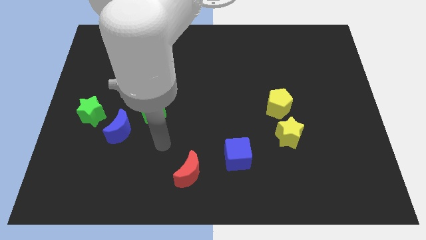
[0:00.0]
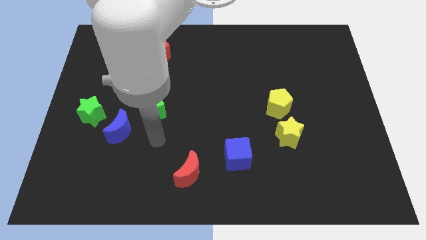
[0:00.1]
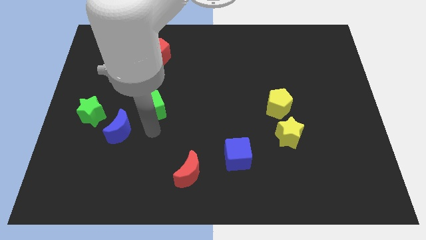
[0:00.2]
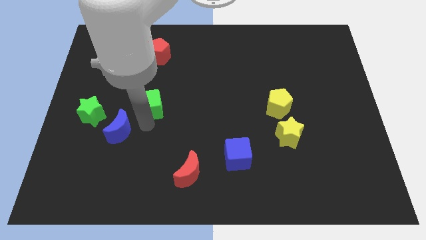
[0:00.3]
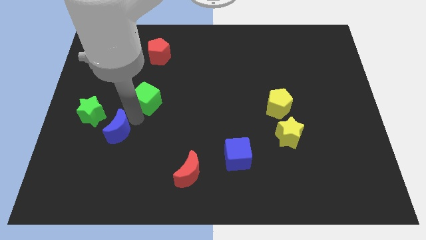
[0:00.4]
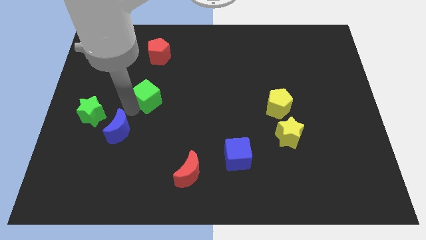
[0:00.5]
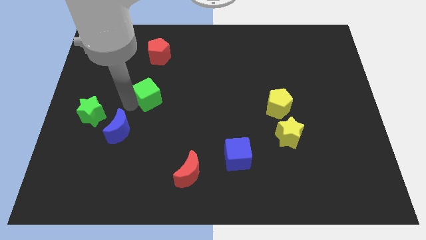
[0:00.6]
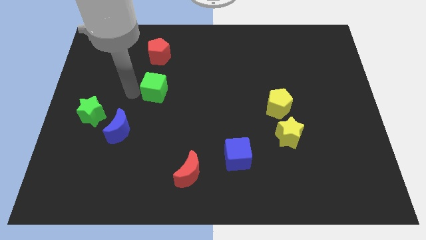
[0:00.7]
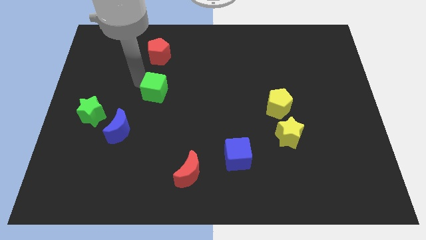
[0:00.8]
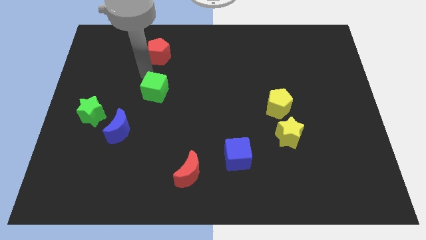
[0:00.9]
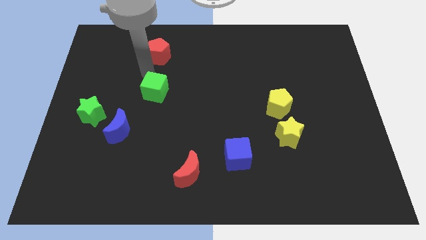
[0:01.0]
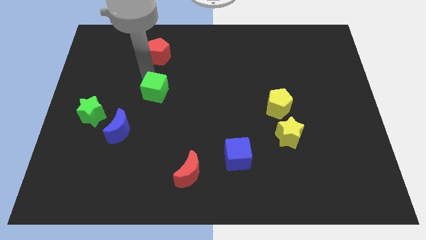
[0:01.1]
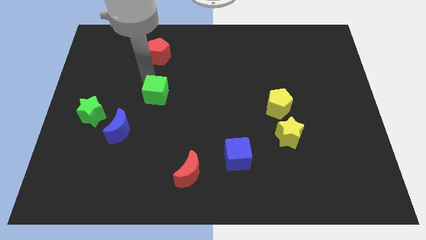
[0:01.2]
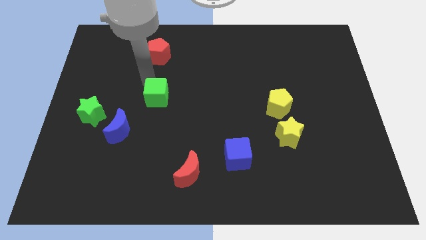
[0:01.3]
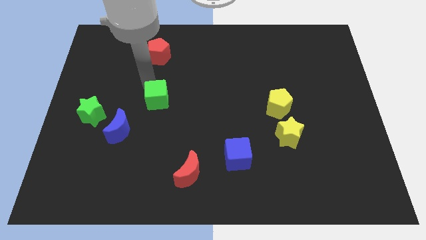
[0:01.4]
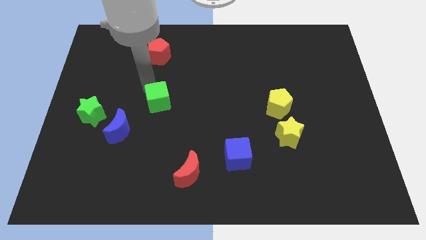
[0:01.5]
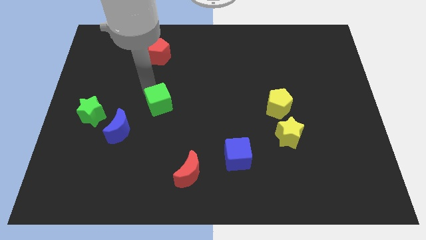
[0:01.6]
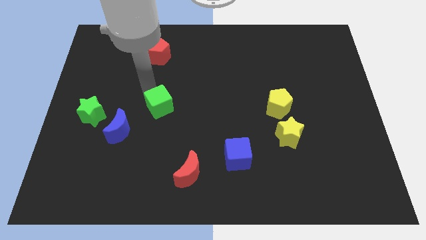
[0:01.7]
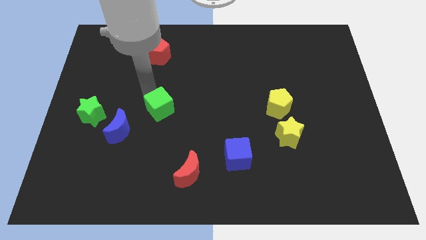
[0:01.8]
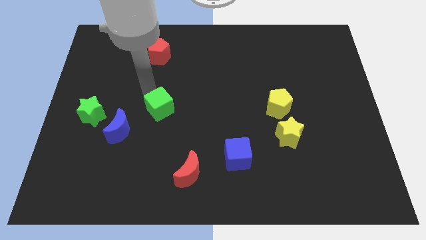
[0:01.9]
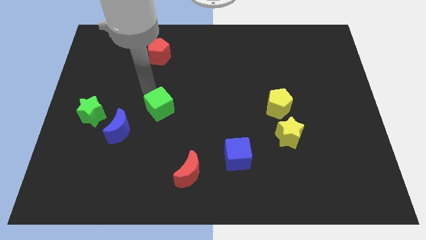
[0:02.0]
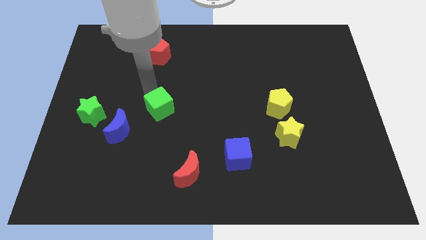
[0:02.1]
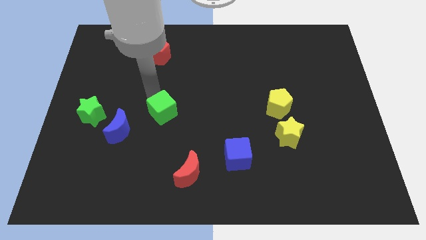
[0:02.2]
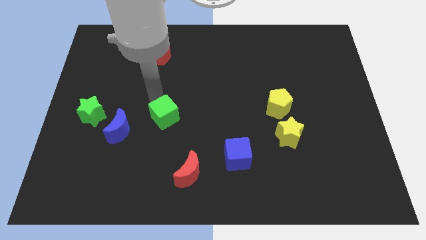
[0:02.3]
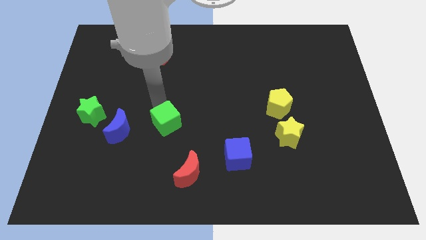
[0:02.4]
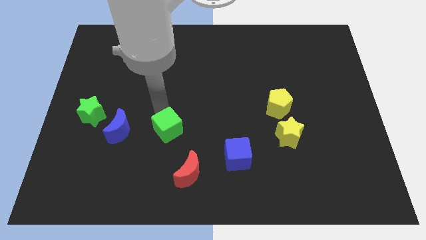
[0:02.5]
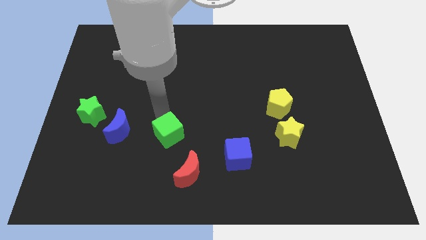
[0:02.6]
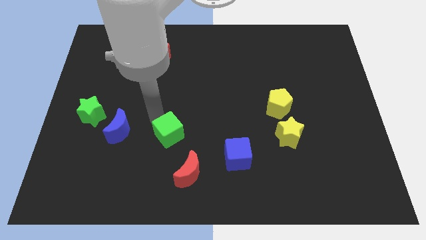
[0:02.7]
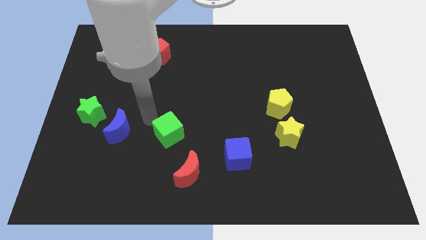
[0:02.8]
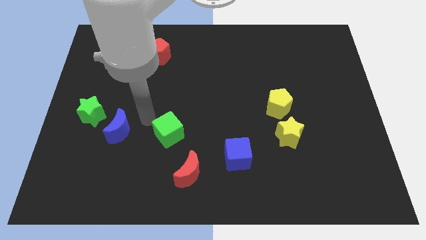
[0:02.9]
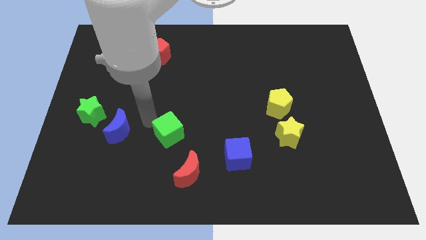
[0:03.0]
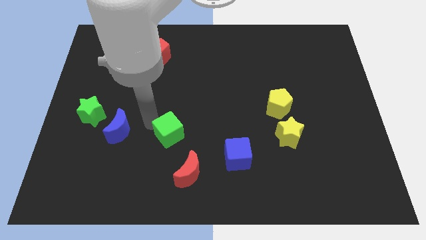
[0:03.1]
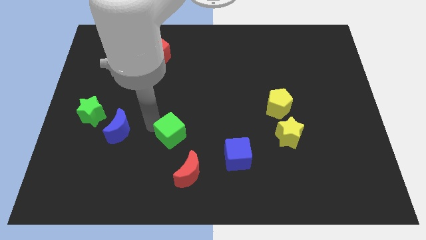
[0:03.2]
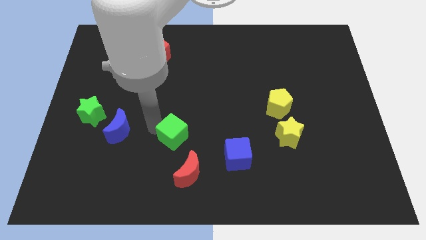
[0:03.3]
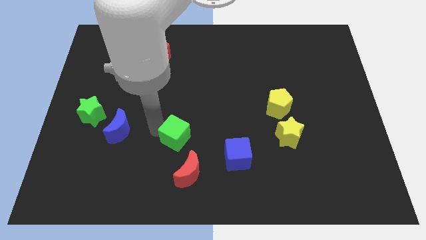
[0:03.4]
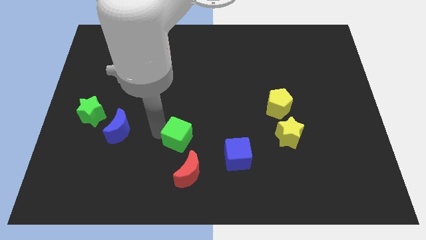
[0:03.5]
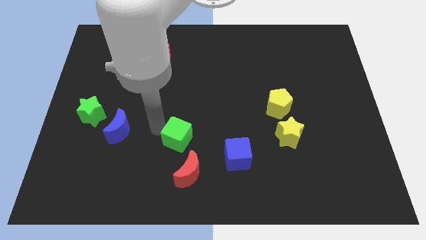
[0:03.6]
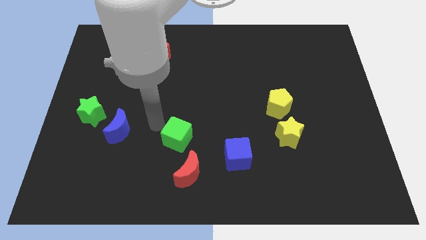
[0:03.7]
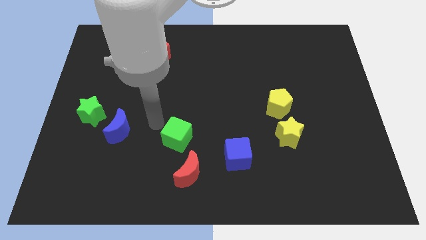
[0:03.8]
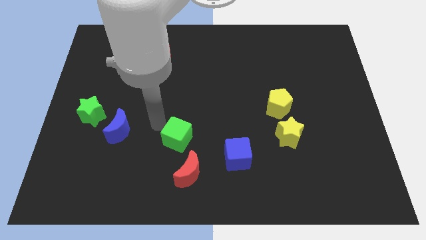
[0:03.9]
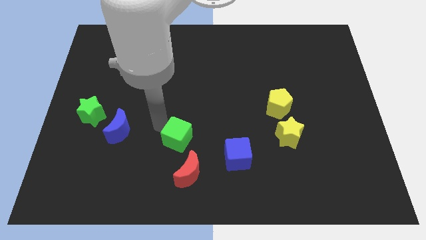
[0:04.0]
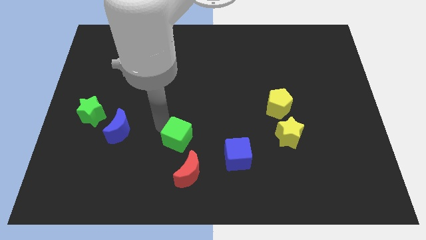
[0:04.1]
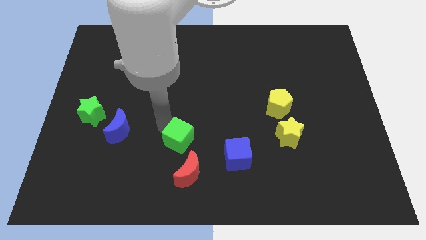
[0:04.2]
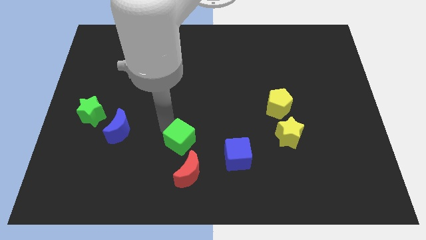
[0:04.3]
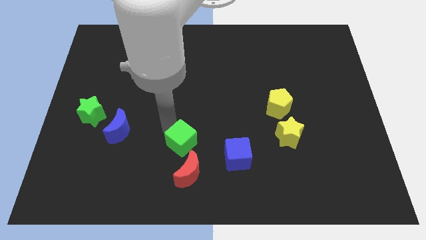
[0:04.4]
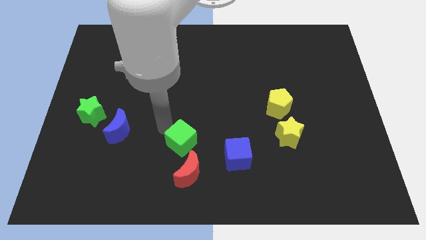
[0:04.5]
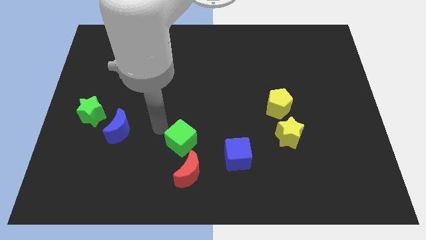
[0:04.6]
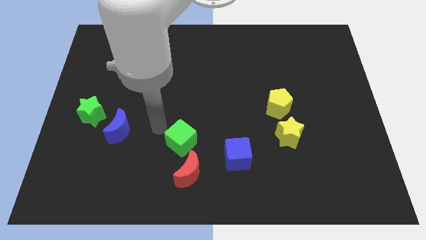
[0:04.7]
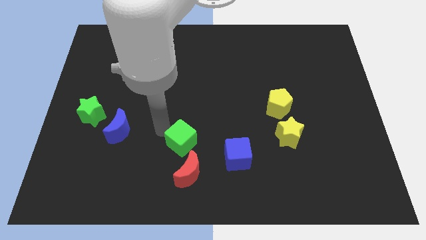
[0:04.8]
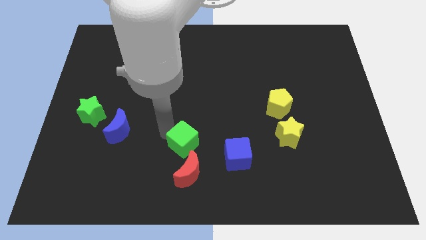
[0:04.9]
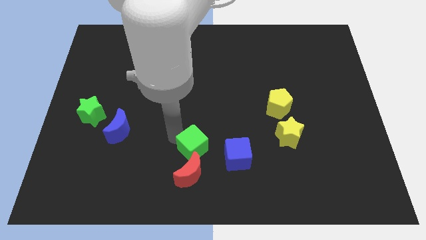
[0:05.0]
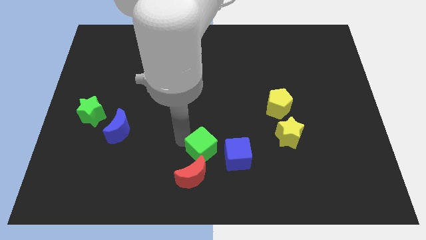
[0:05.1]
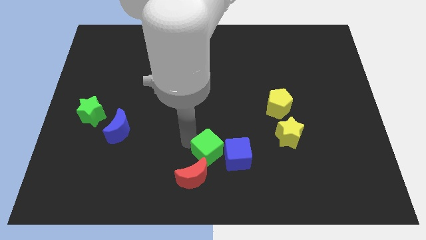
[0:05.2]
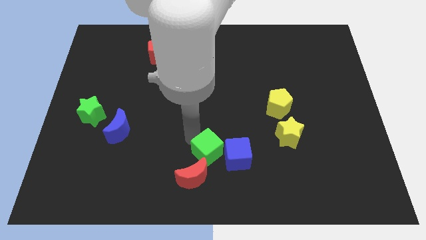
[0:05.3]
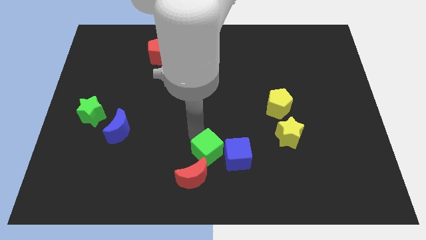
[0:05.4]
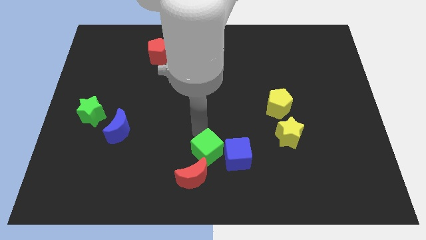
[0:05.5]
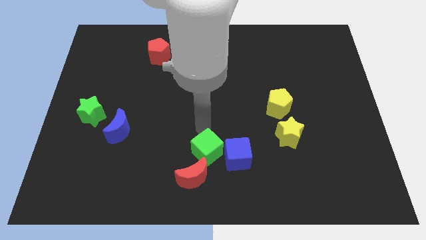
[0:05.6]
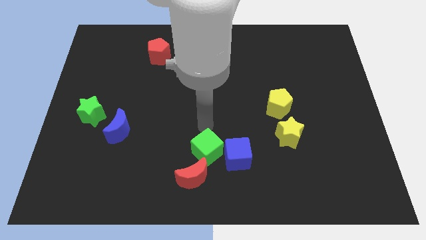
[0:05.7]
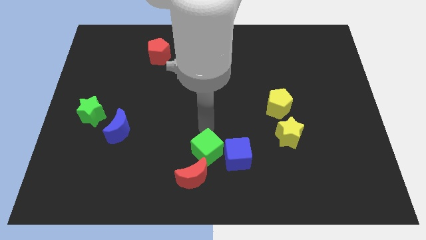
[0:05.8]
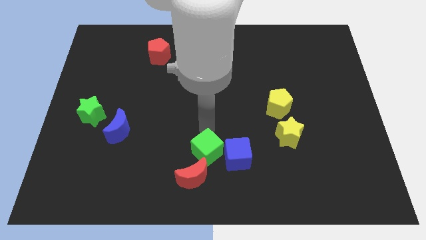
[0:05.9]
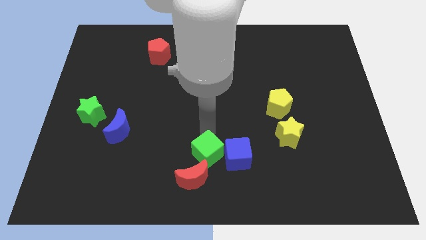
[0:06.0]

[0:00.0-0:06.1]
move the green cube to the bottom side

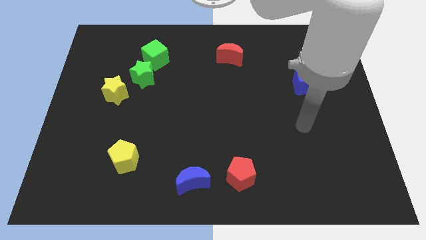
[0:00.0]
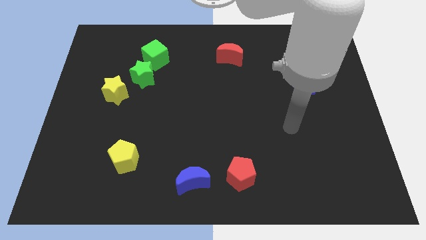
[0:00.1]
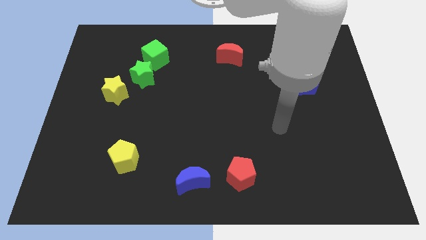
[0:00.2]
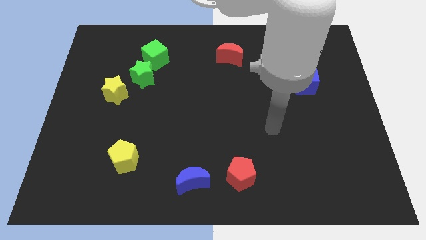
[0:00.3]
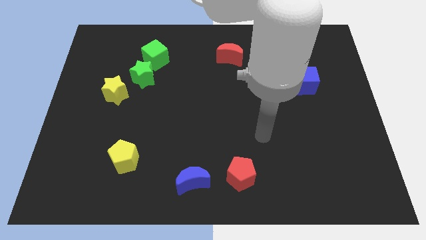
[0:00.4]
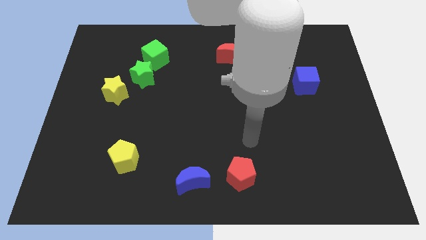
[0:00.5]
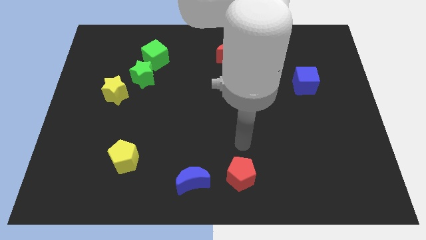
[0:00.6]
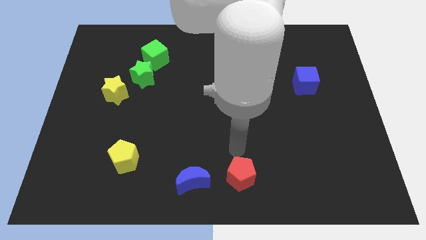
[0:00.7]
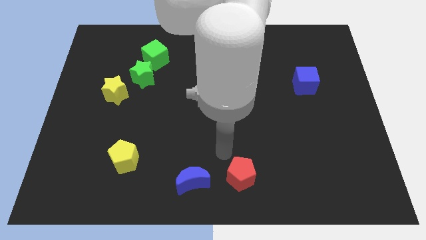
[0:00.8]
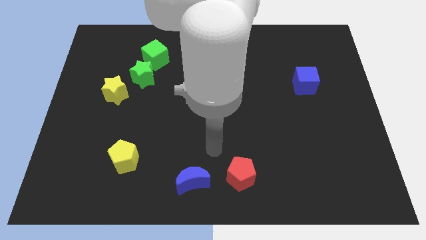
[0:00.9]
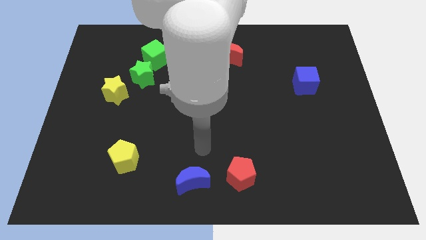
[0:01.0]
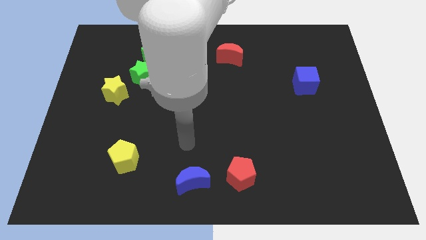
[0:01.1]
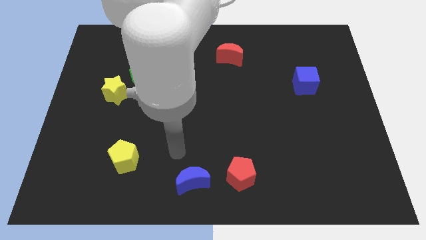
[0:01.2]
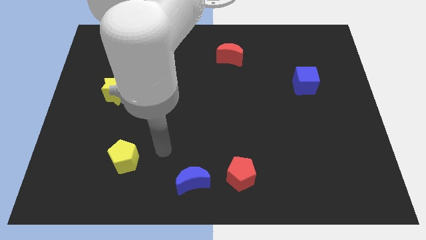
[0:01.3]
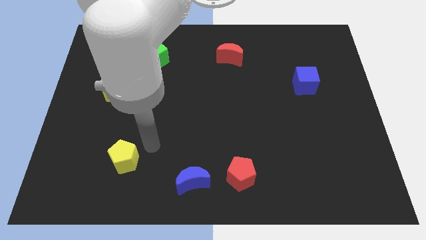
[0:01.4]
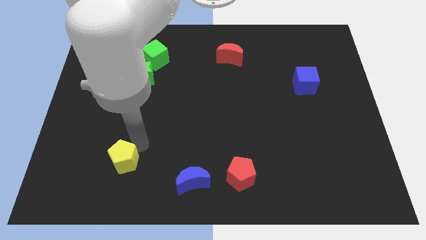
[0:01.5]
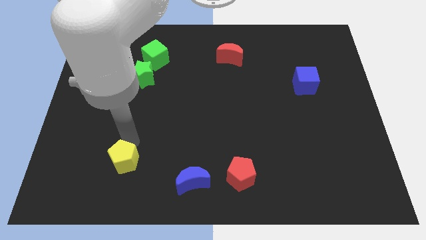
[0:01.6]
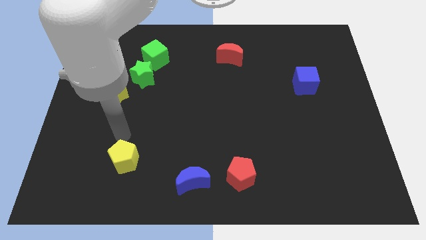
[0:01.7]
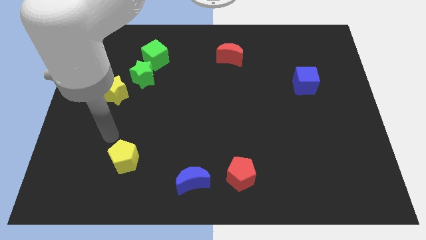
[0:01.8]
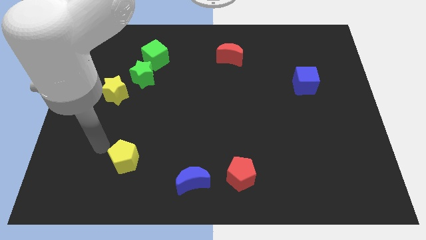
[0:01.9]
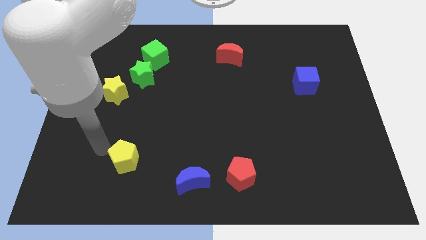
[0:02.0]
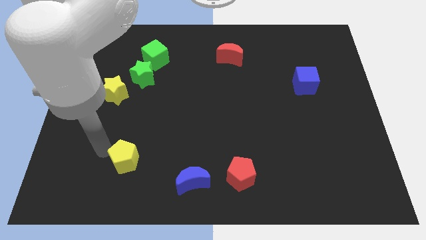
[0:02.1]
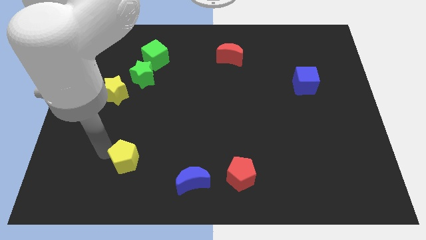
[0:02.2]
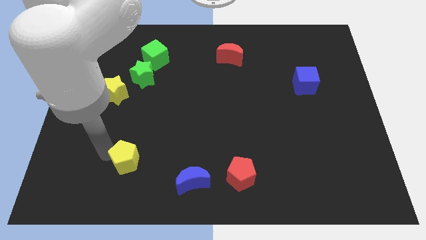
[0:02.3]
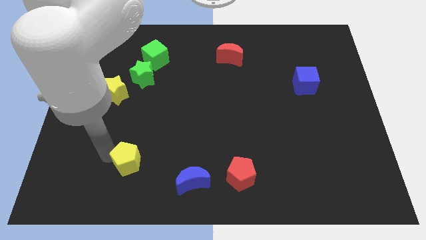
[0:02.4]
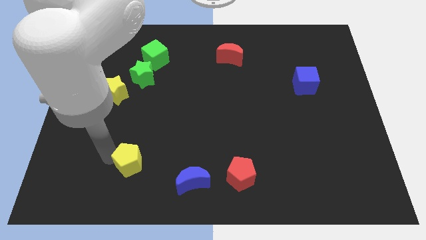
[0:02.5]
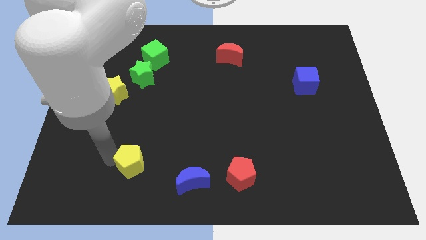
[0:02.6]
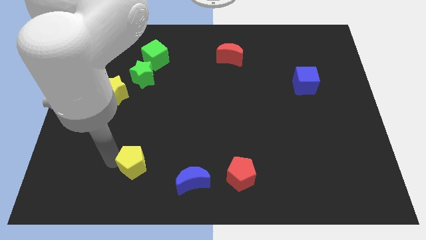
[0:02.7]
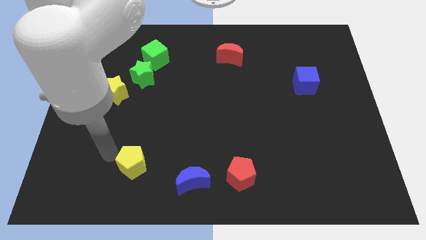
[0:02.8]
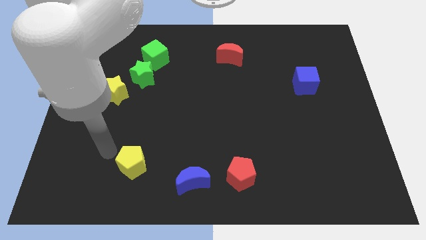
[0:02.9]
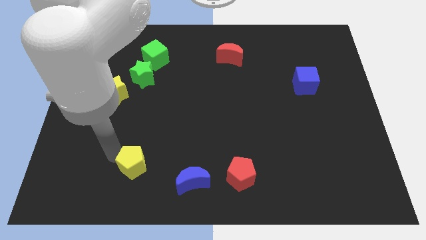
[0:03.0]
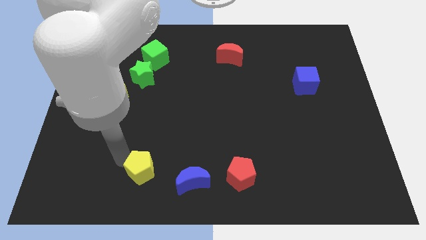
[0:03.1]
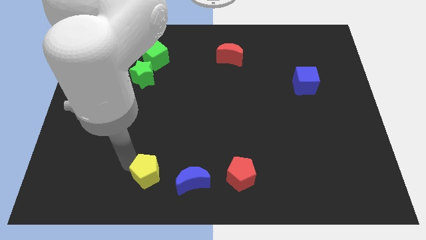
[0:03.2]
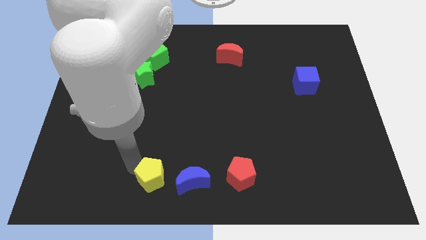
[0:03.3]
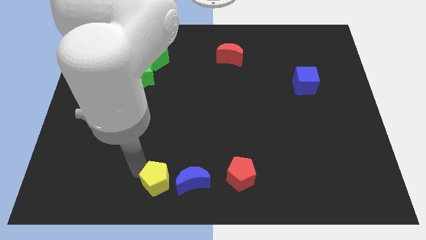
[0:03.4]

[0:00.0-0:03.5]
put the yellow pentagon to the bottom
